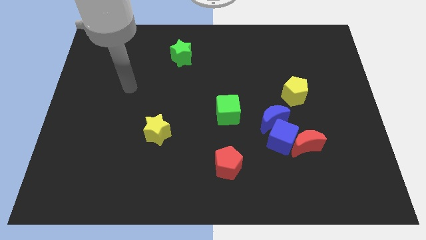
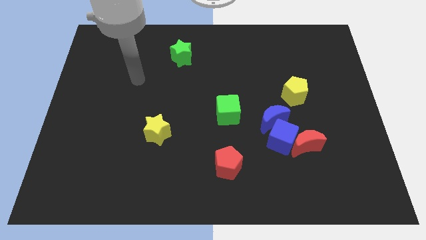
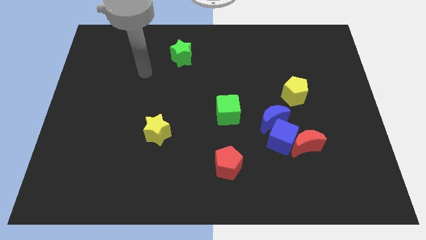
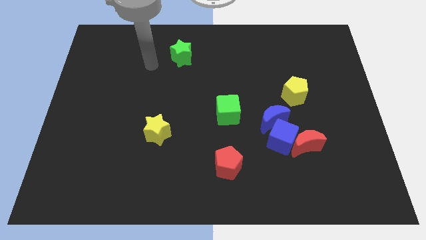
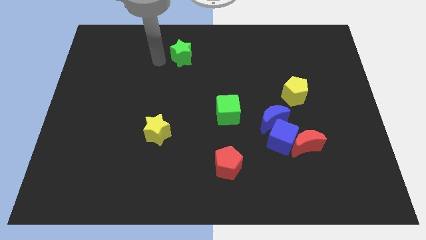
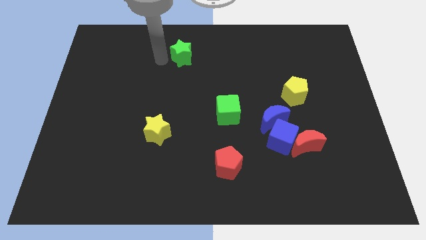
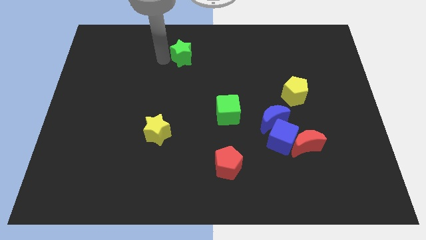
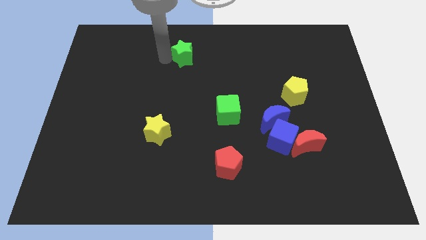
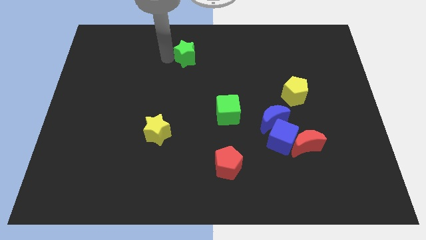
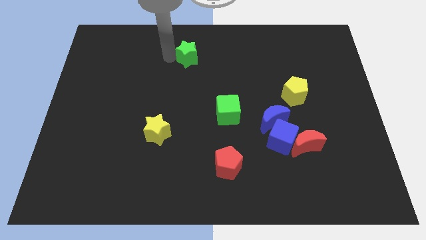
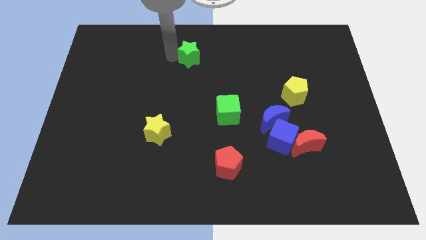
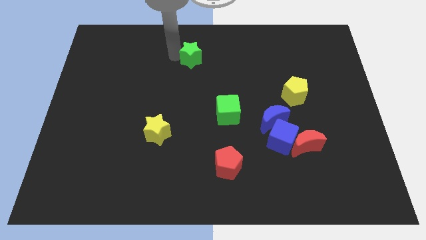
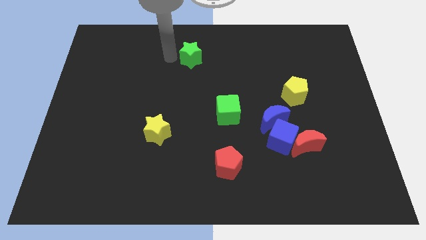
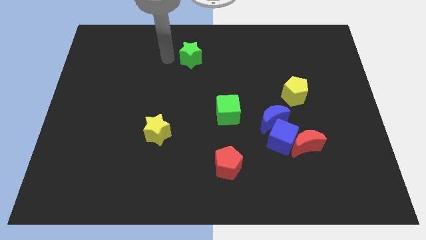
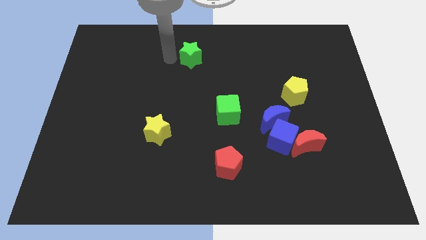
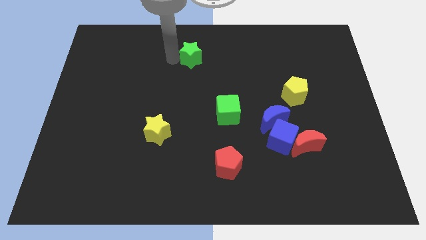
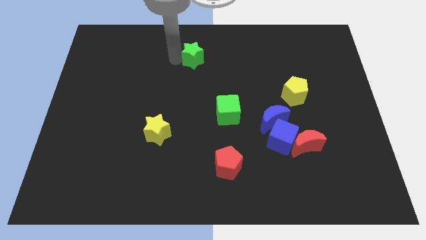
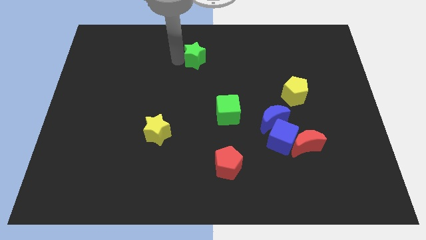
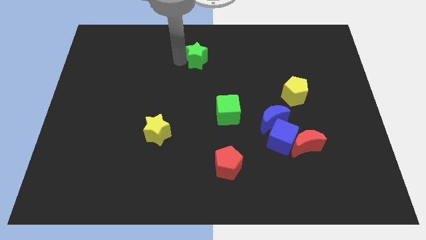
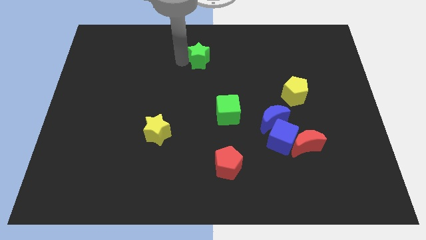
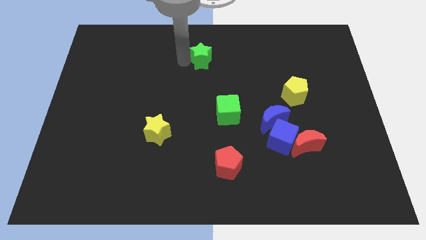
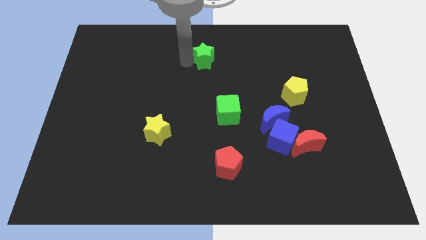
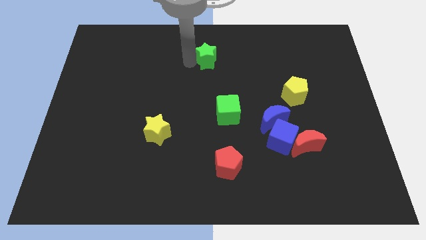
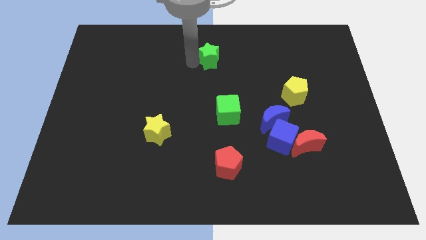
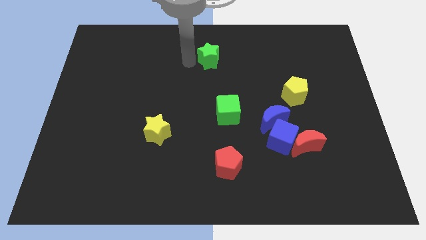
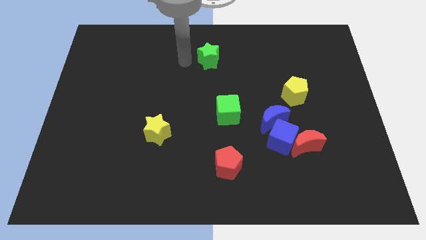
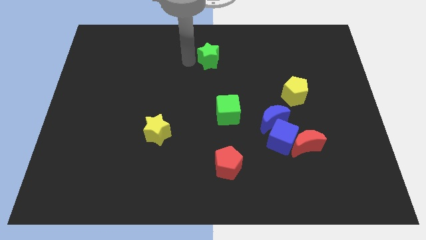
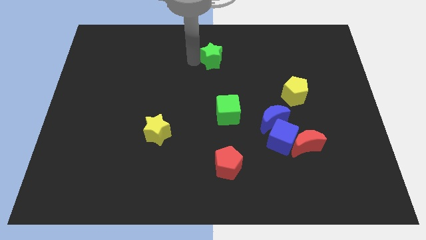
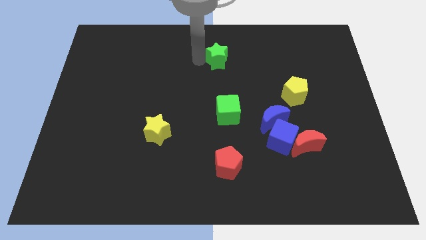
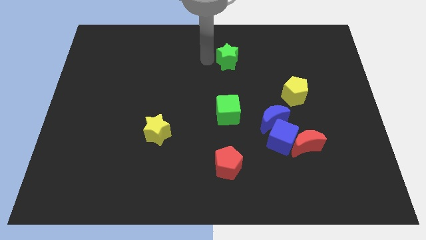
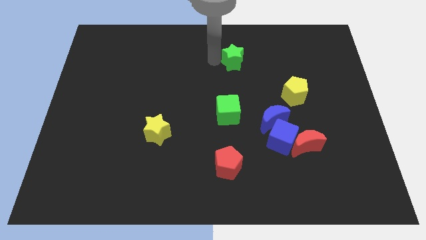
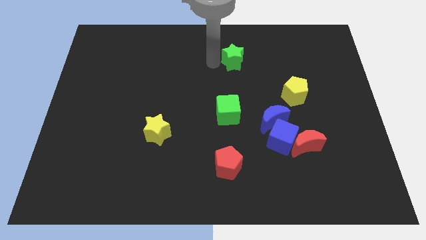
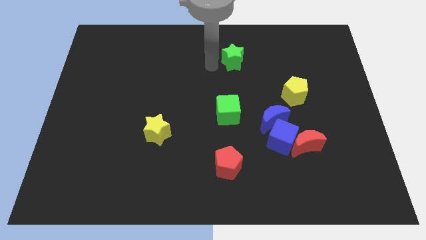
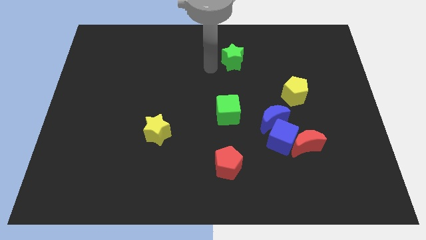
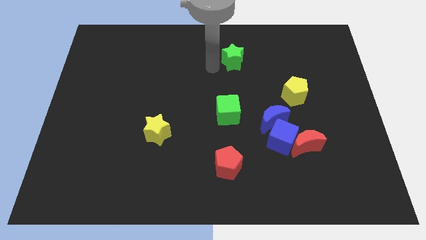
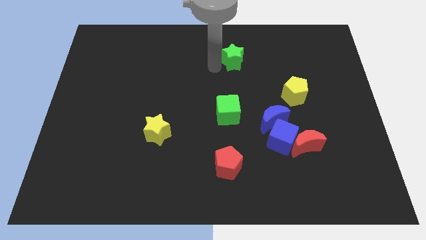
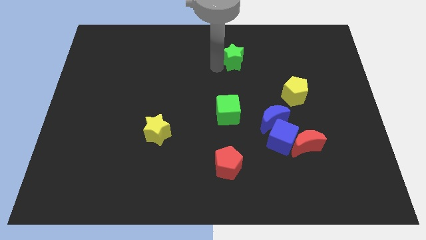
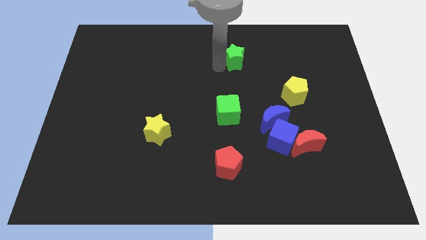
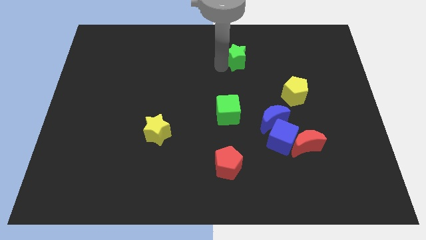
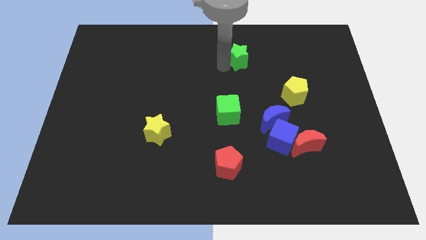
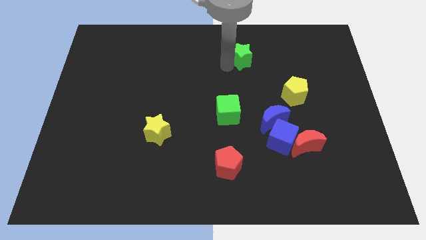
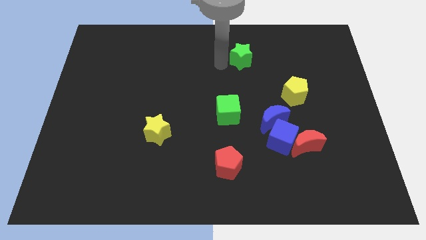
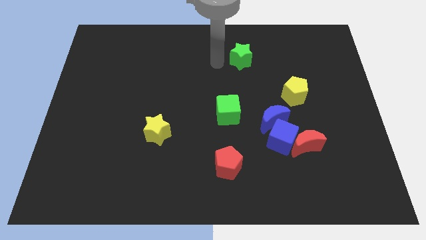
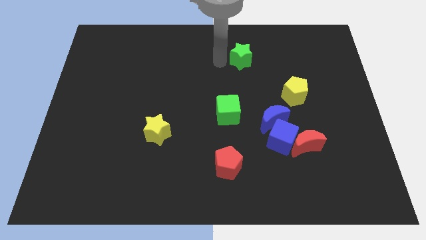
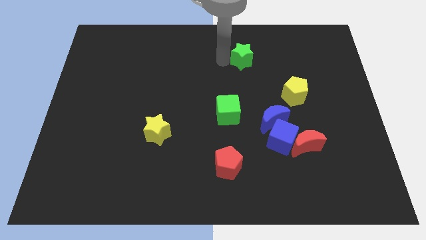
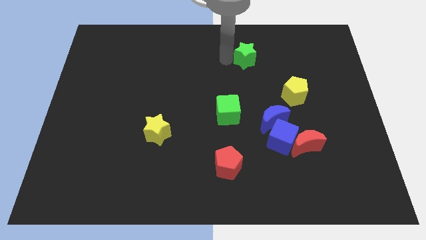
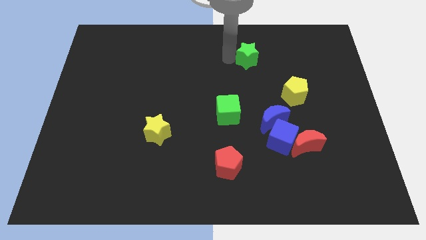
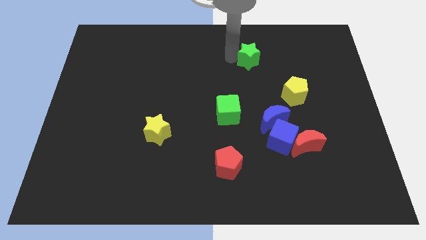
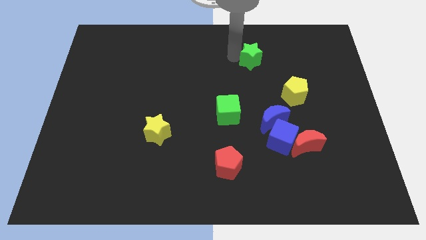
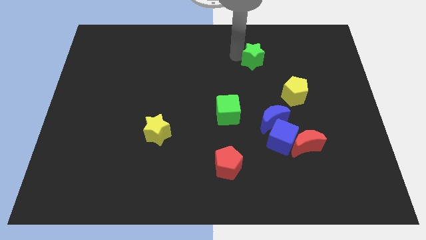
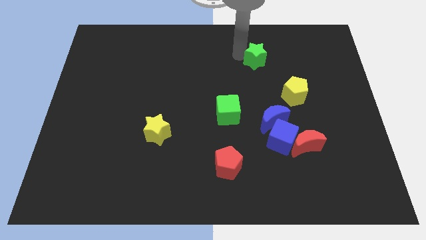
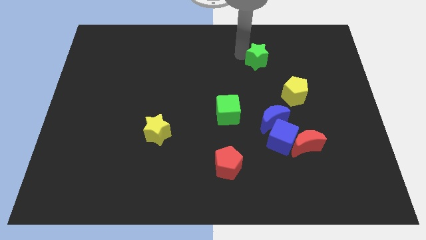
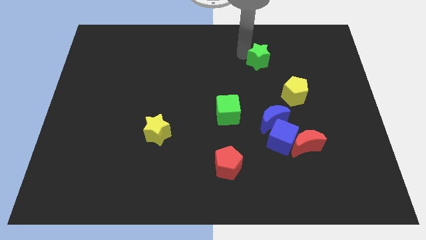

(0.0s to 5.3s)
move the green star right

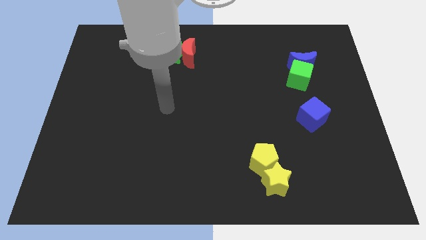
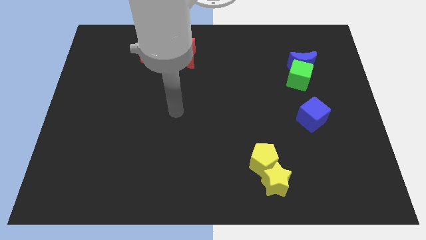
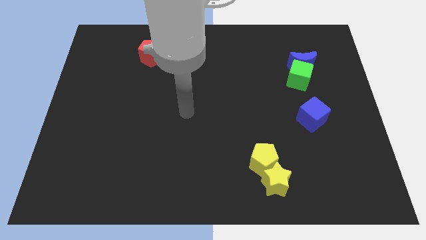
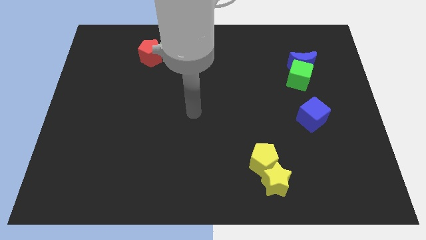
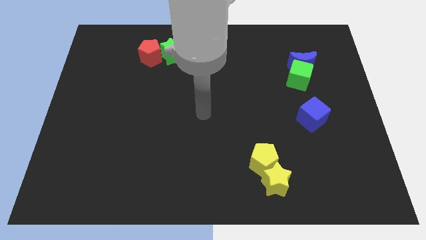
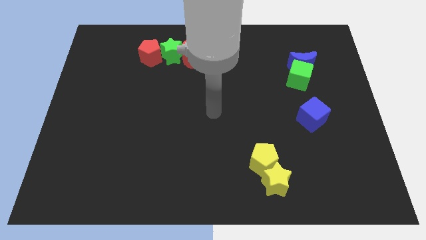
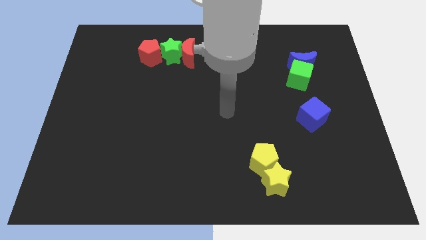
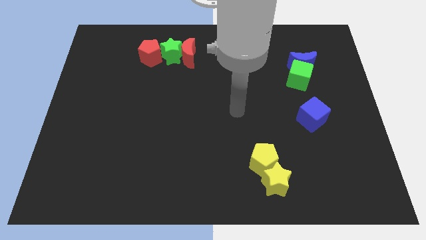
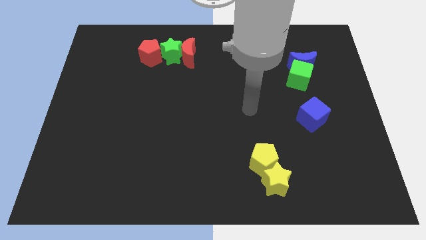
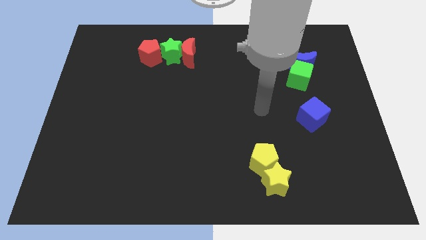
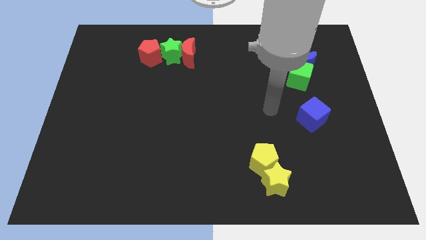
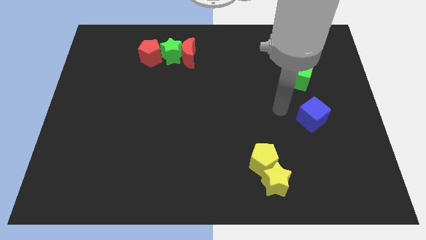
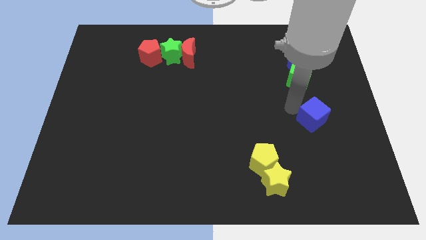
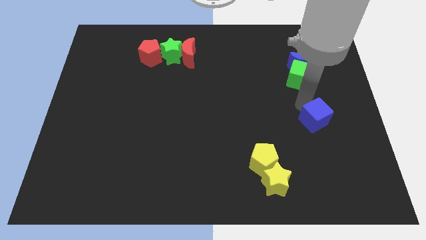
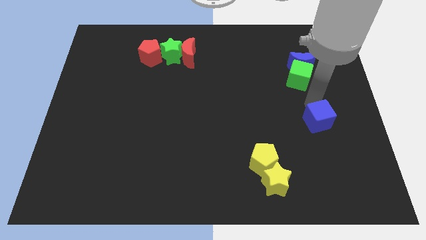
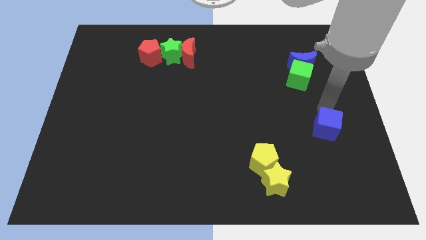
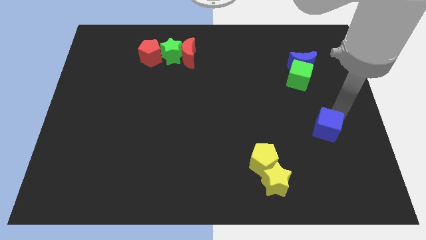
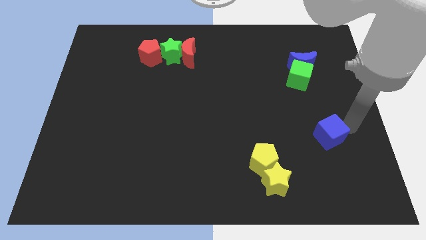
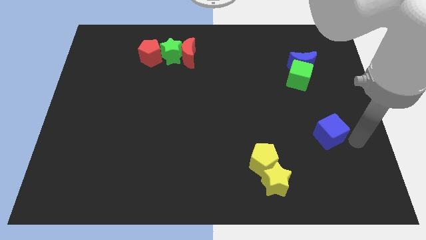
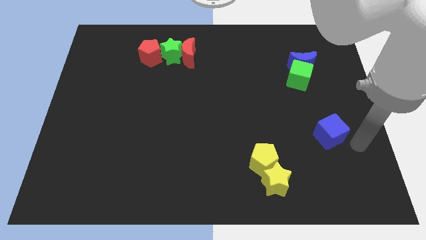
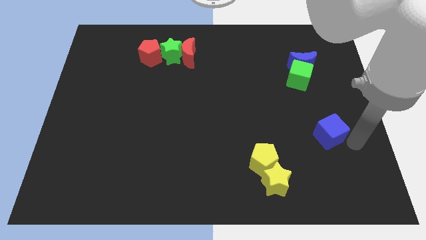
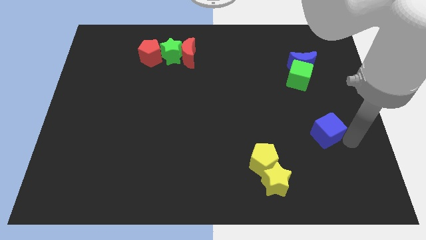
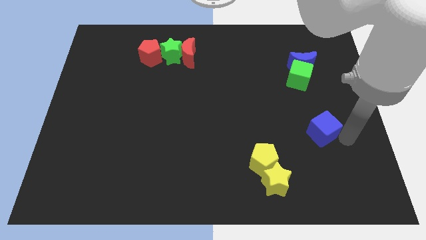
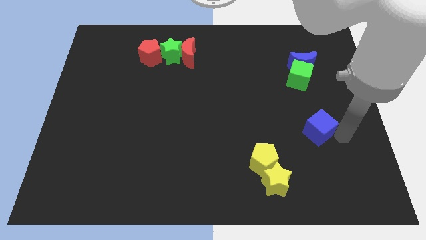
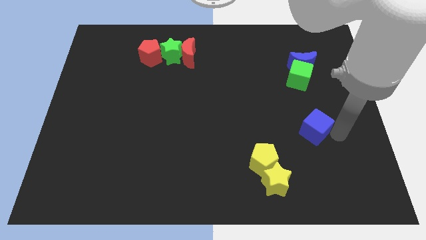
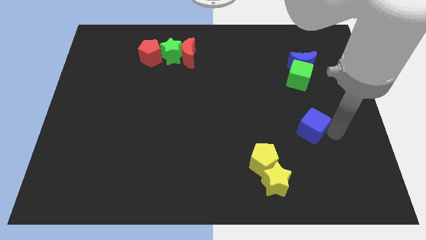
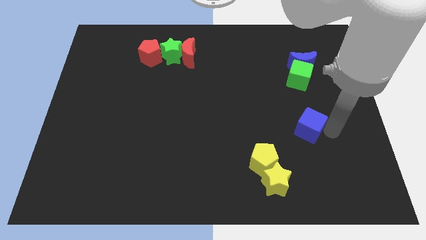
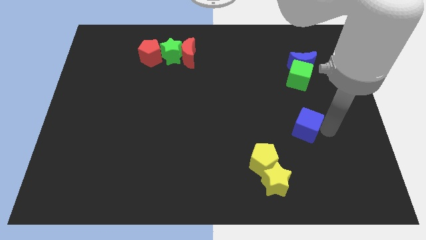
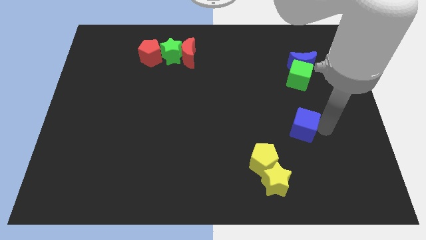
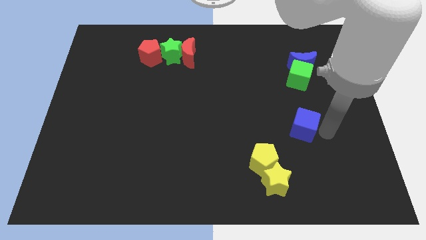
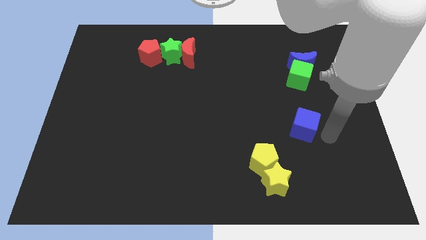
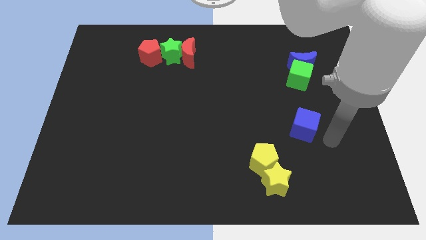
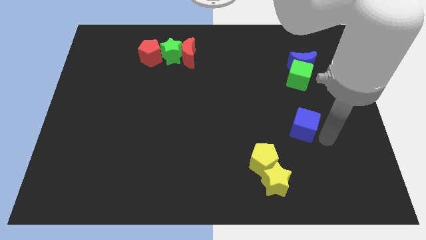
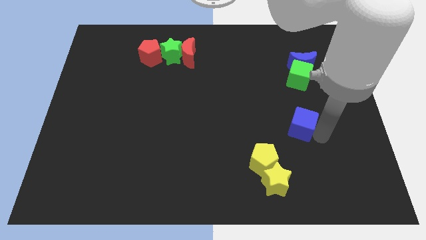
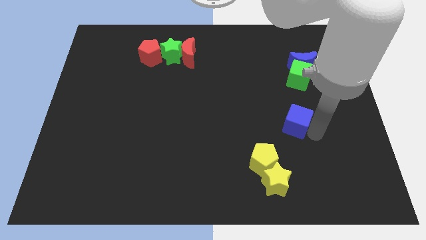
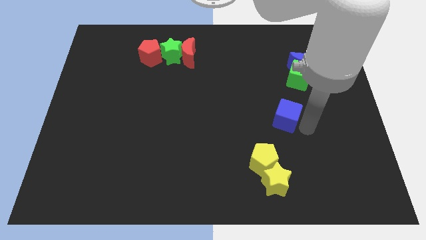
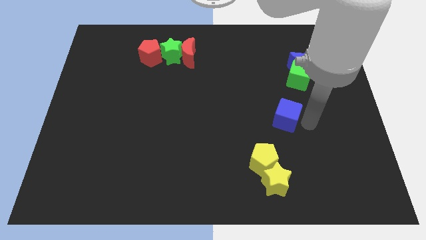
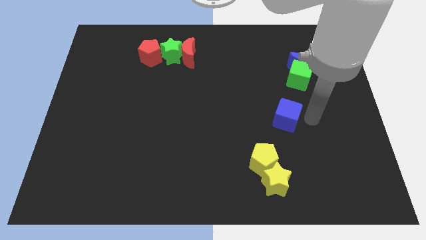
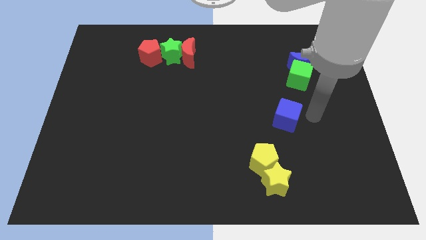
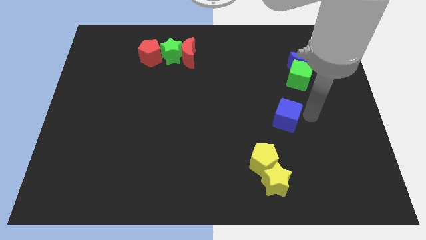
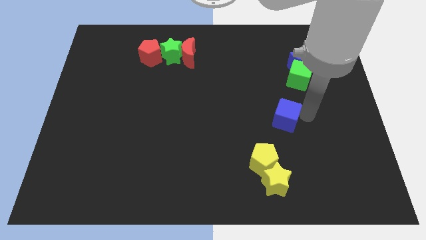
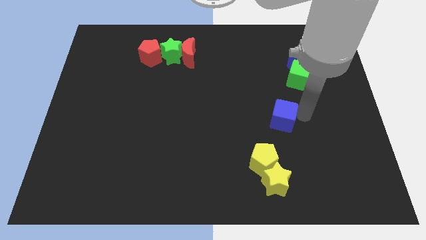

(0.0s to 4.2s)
slide the blue cube slightly left
